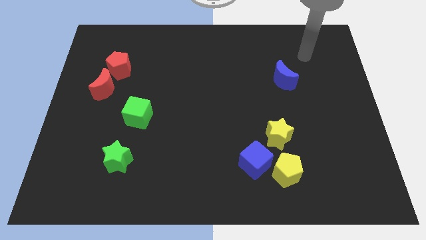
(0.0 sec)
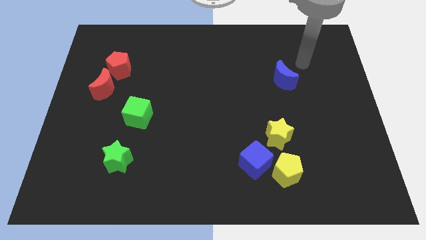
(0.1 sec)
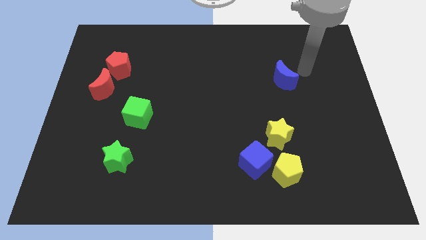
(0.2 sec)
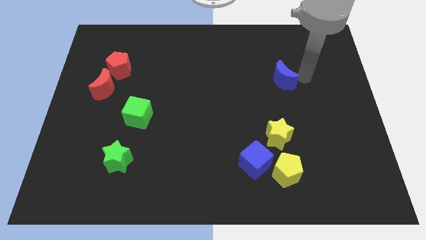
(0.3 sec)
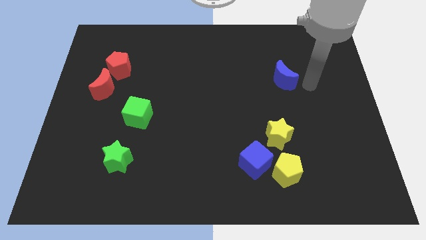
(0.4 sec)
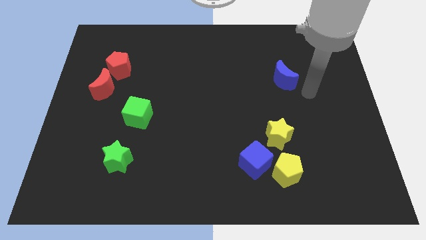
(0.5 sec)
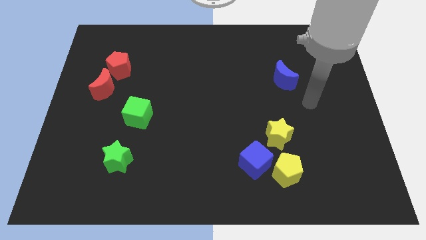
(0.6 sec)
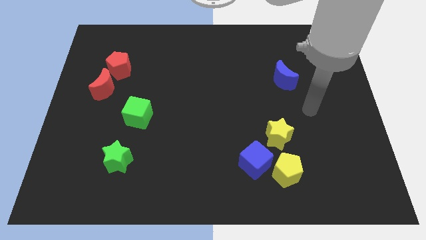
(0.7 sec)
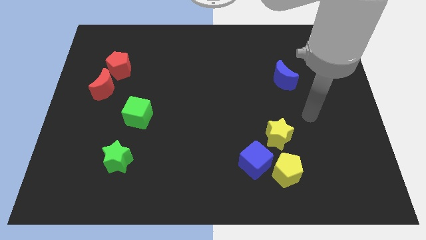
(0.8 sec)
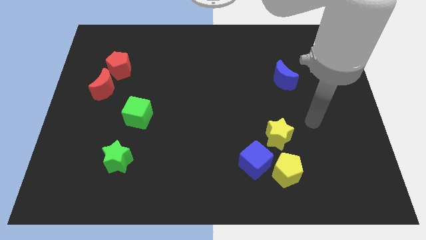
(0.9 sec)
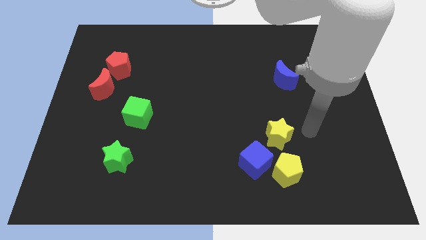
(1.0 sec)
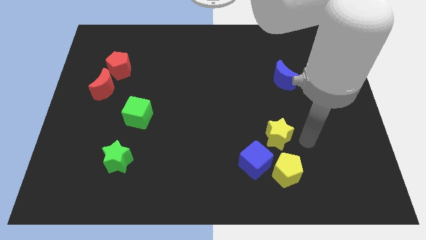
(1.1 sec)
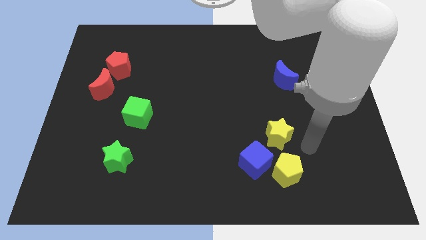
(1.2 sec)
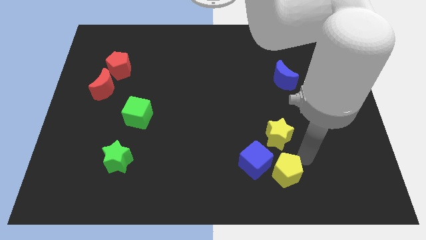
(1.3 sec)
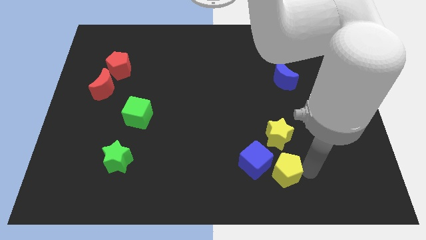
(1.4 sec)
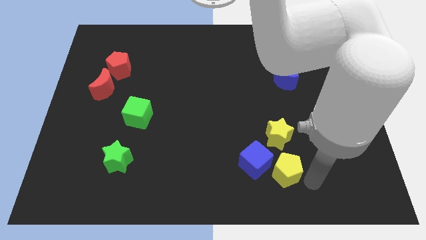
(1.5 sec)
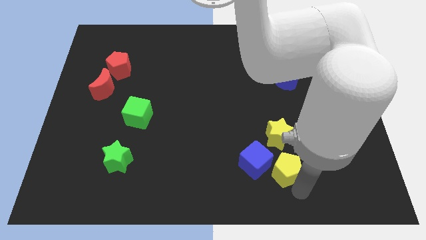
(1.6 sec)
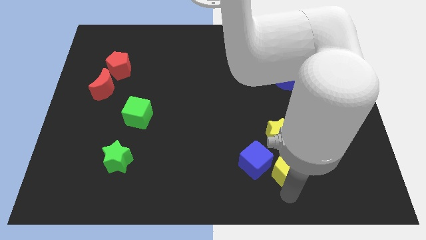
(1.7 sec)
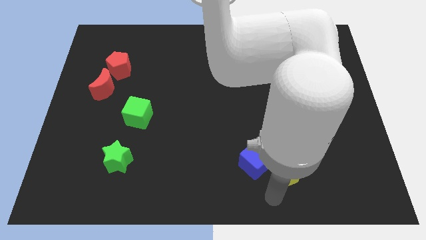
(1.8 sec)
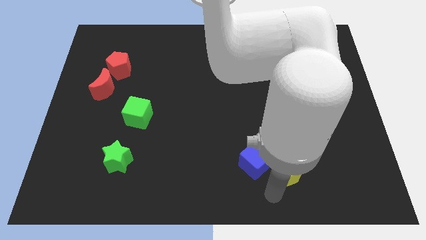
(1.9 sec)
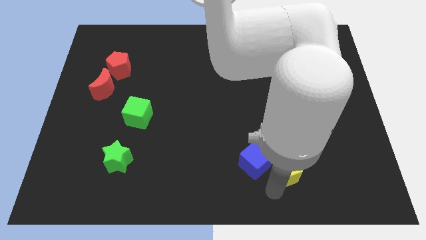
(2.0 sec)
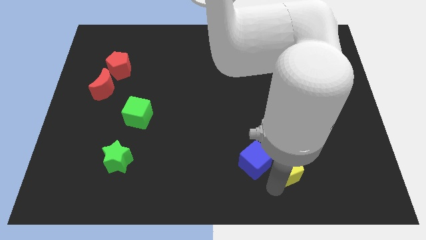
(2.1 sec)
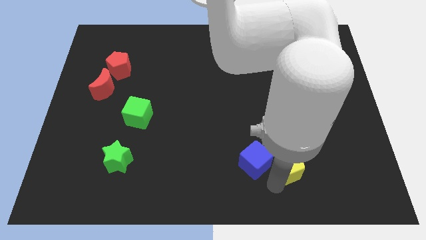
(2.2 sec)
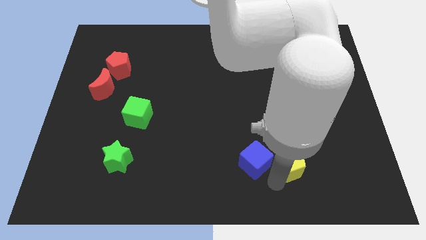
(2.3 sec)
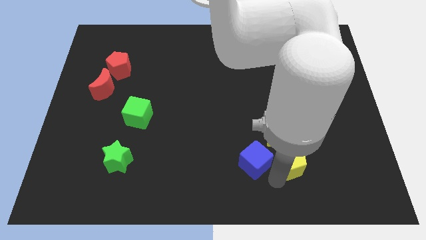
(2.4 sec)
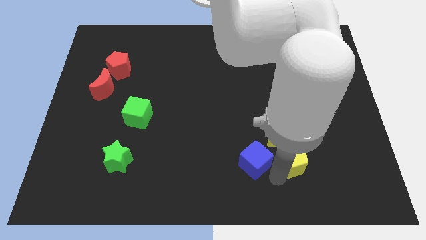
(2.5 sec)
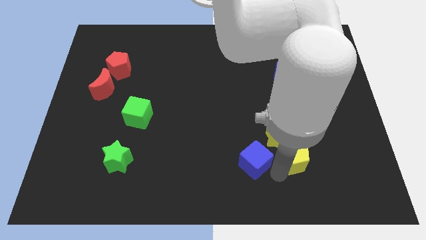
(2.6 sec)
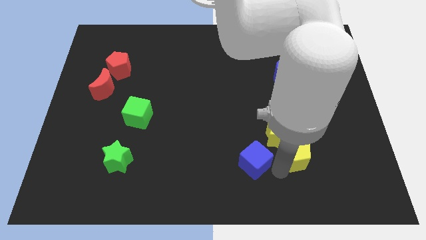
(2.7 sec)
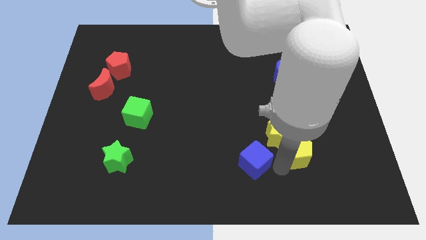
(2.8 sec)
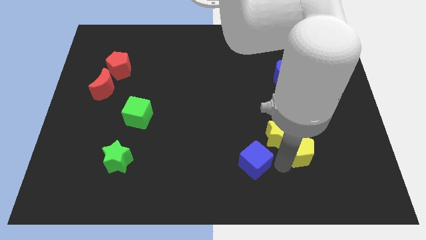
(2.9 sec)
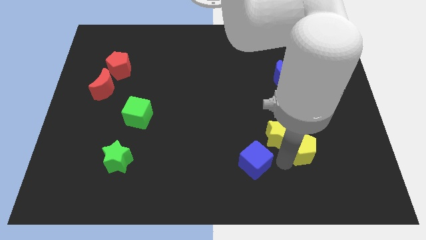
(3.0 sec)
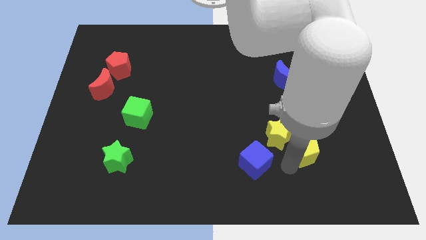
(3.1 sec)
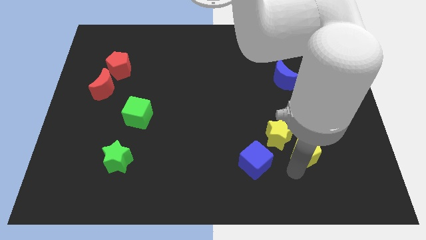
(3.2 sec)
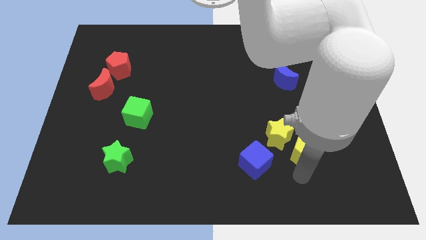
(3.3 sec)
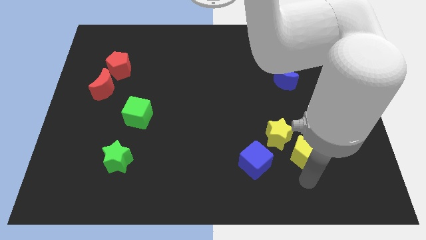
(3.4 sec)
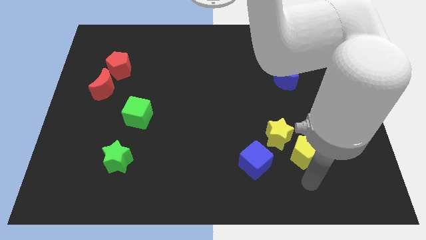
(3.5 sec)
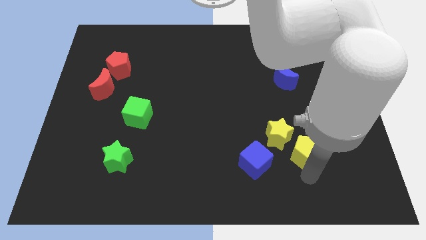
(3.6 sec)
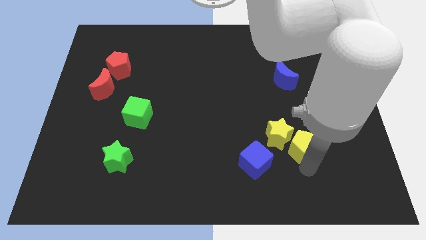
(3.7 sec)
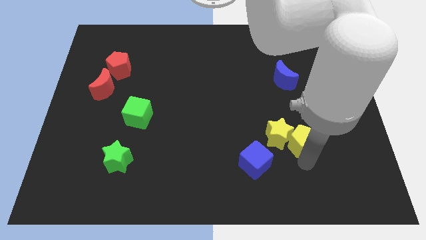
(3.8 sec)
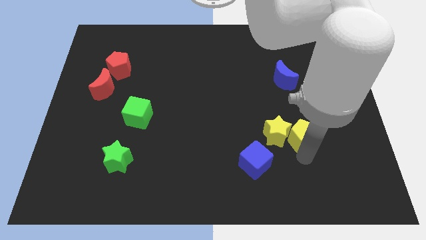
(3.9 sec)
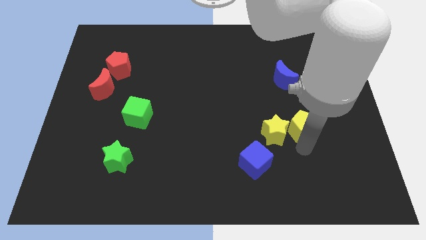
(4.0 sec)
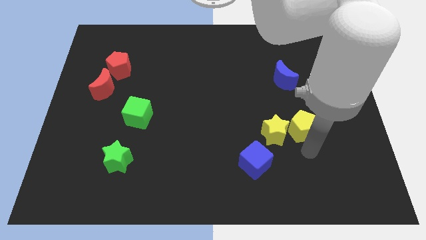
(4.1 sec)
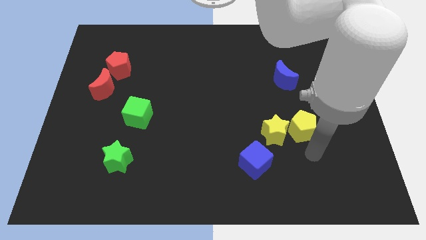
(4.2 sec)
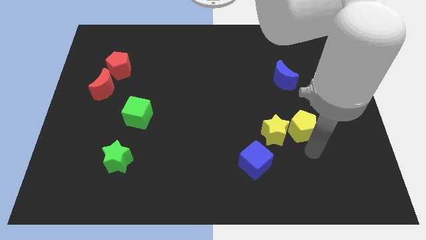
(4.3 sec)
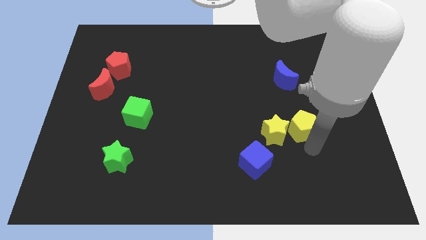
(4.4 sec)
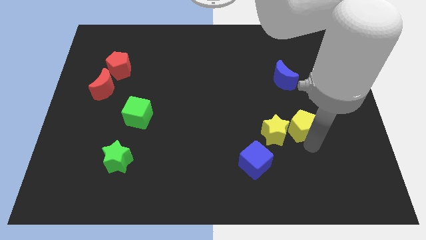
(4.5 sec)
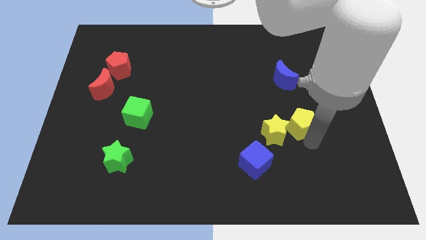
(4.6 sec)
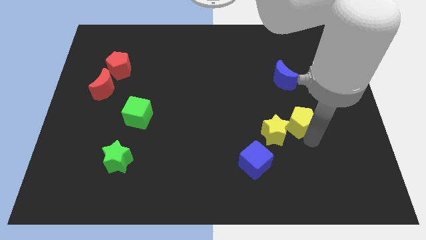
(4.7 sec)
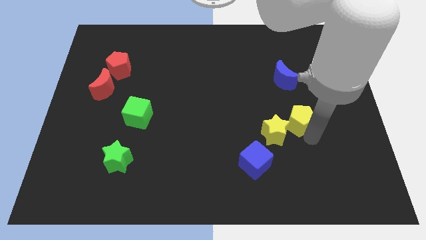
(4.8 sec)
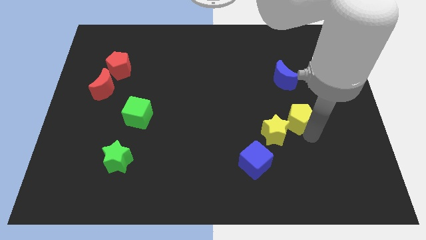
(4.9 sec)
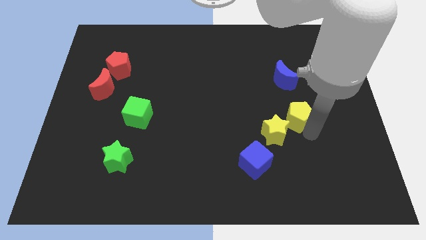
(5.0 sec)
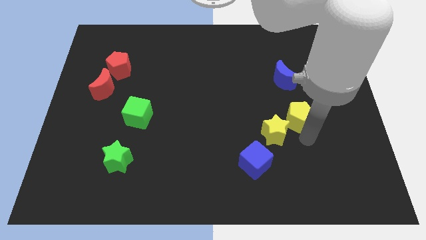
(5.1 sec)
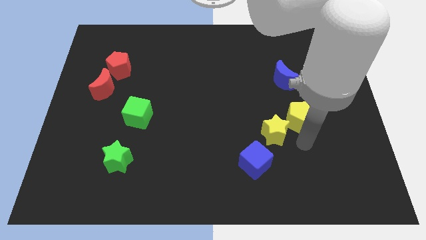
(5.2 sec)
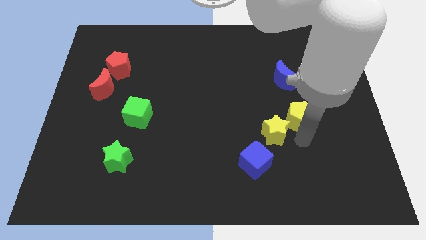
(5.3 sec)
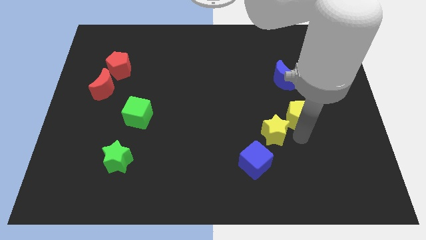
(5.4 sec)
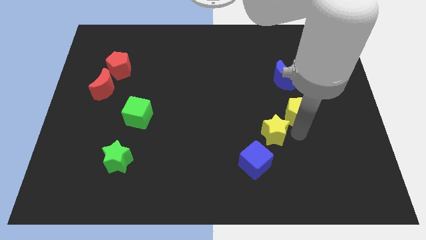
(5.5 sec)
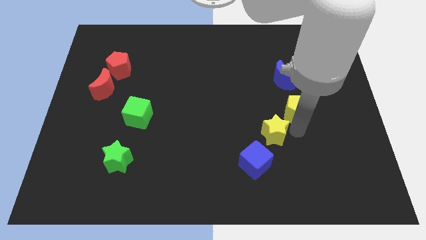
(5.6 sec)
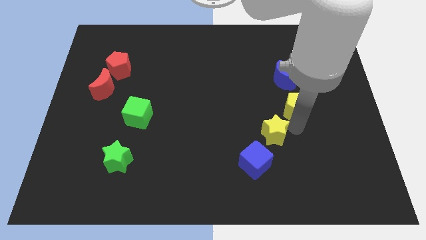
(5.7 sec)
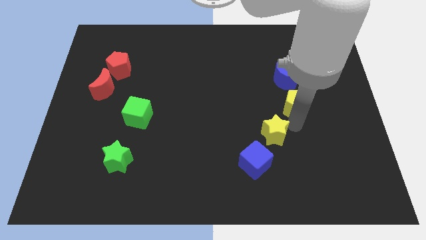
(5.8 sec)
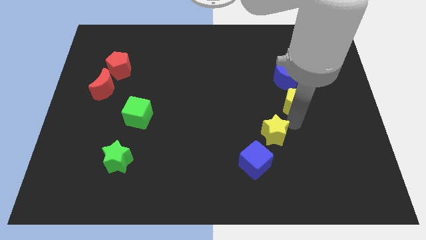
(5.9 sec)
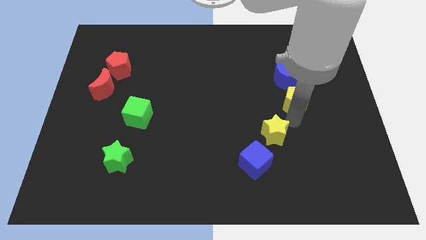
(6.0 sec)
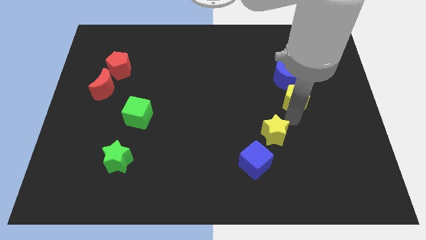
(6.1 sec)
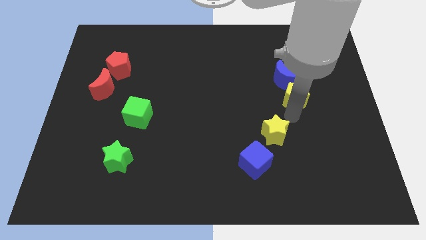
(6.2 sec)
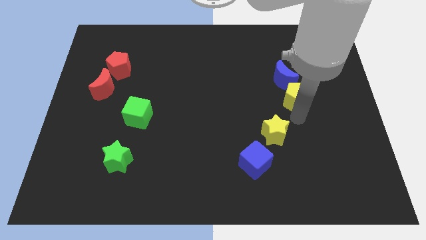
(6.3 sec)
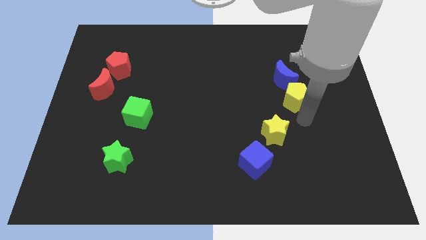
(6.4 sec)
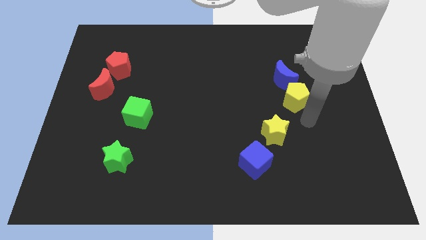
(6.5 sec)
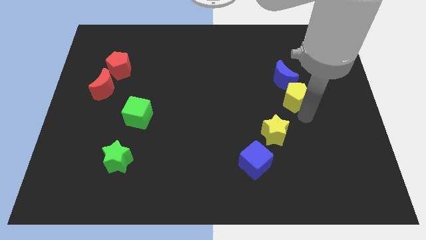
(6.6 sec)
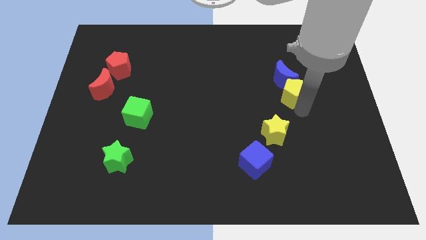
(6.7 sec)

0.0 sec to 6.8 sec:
put the yellow pentagon towards the blue moon
